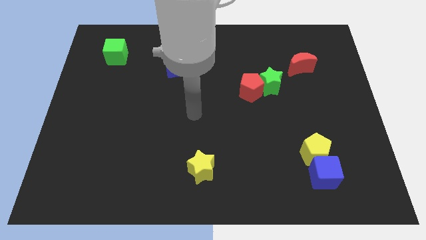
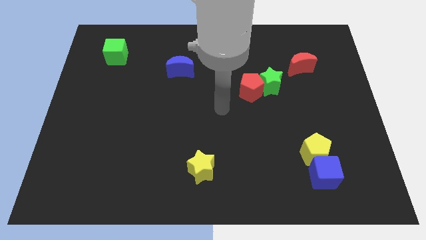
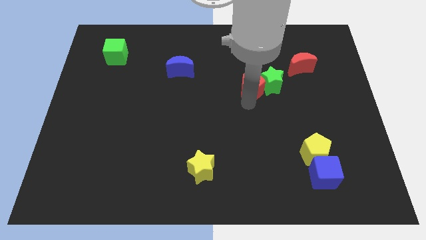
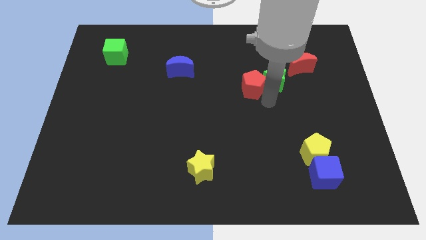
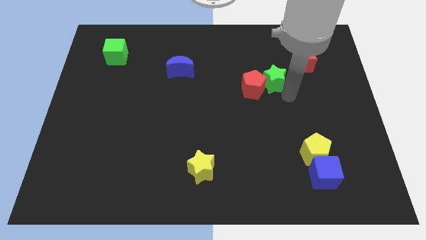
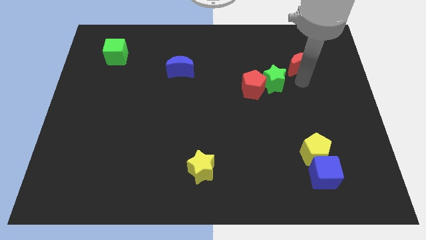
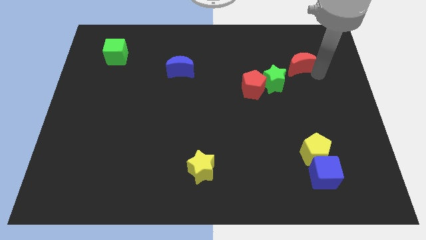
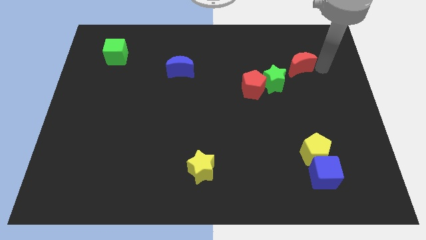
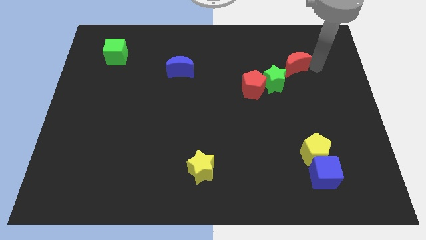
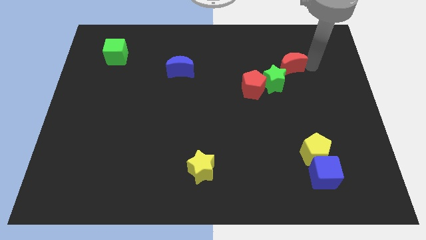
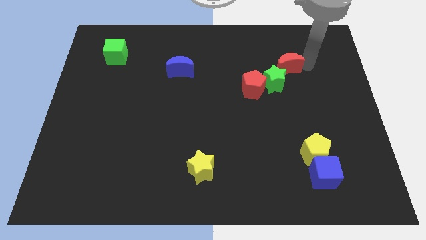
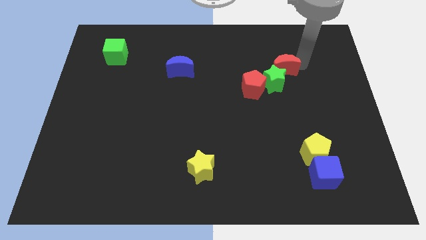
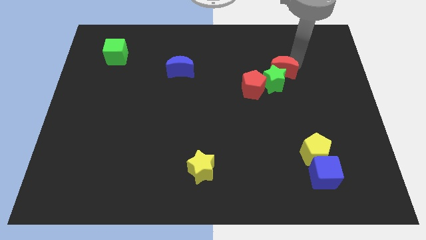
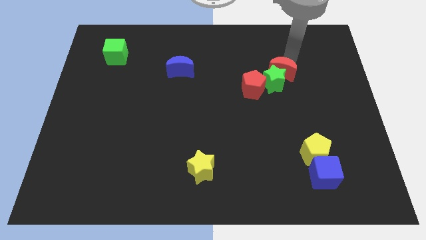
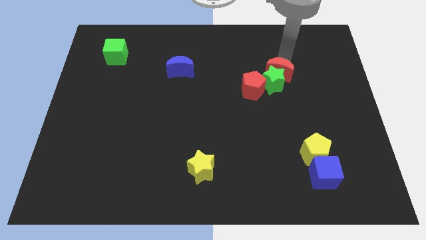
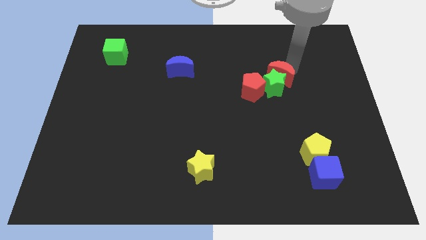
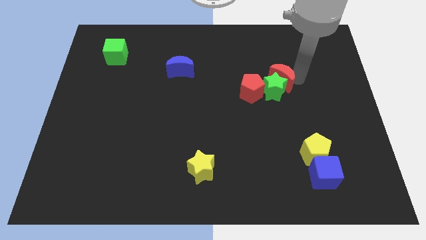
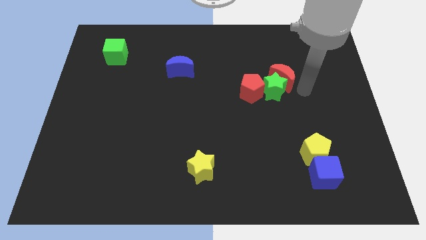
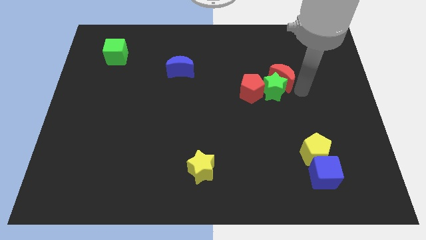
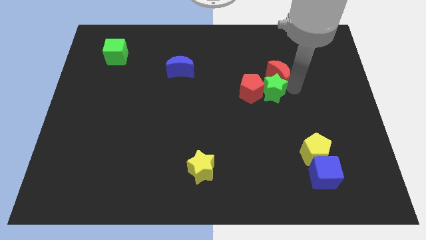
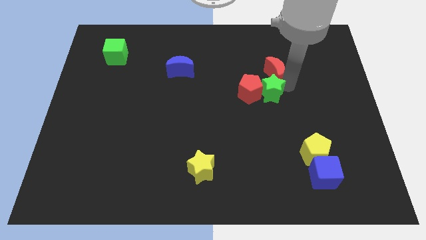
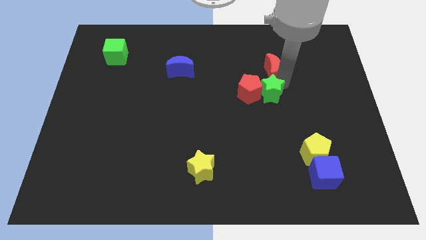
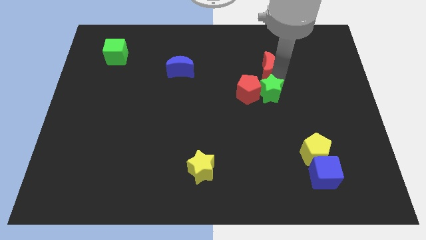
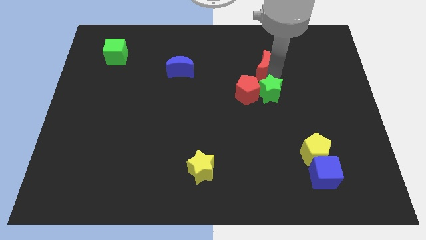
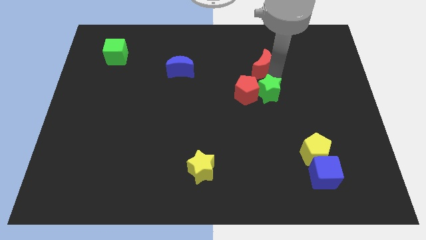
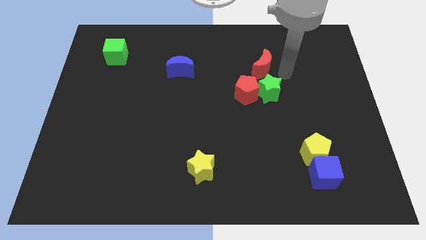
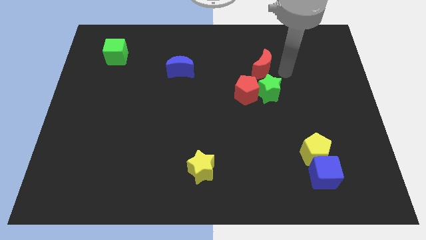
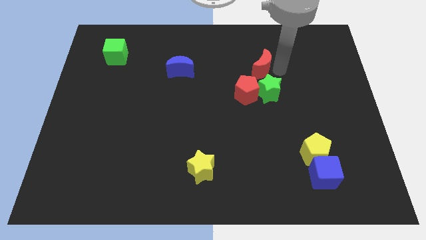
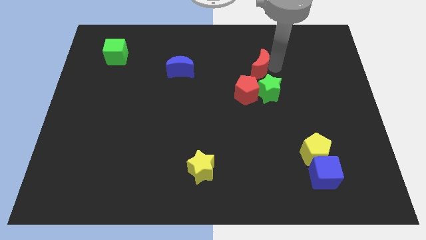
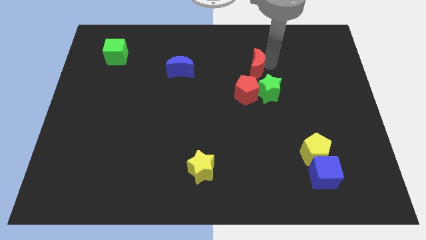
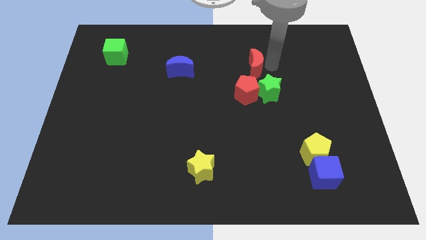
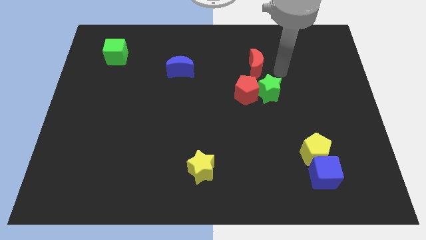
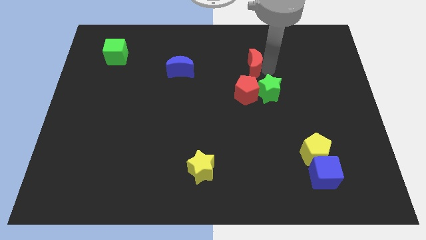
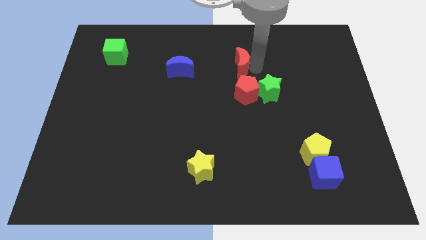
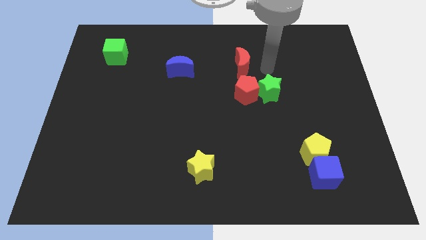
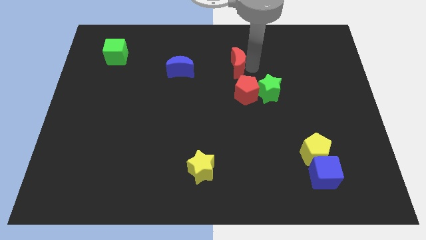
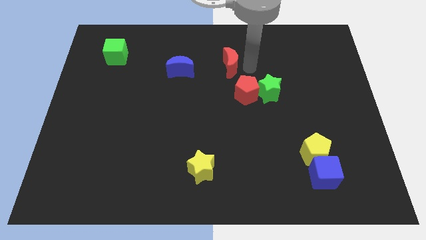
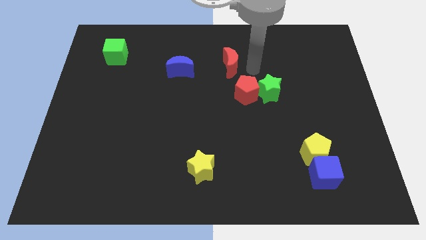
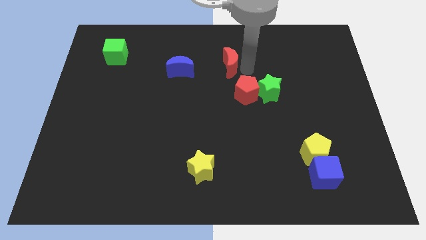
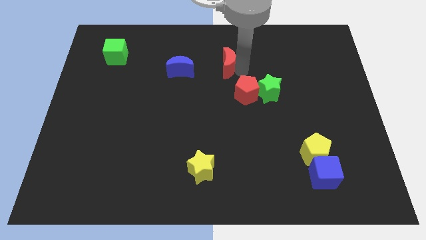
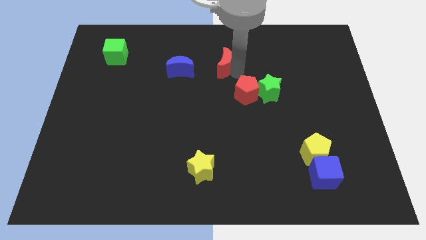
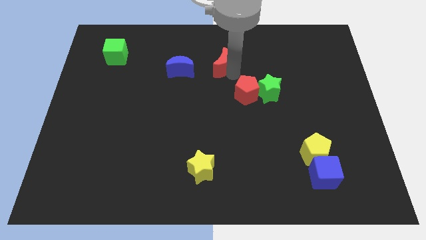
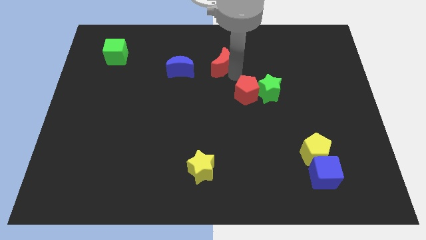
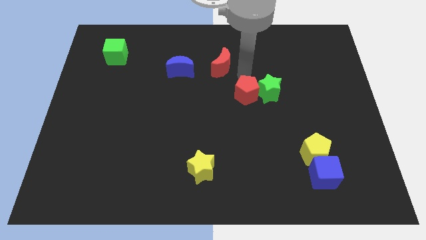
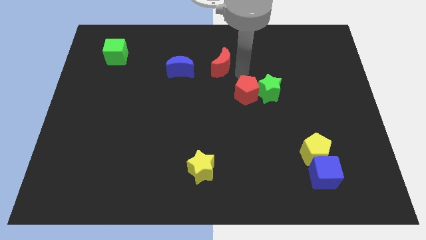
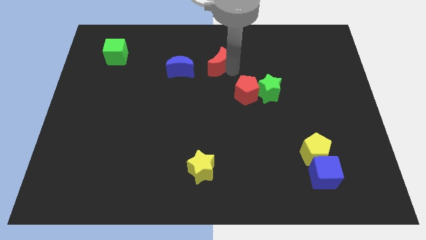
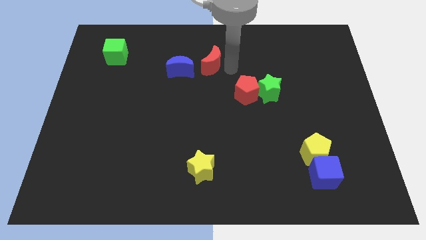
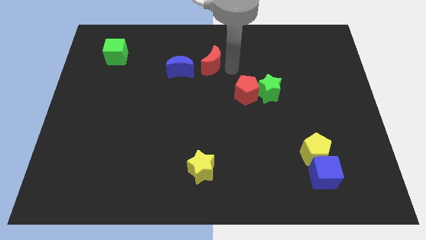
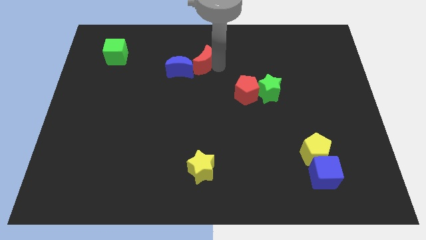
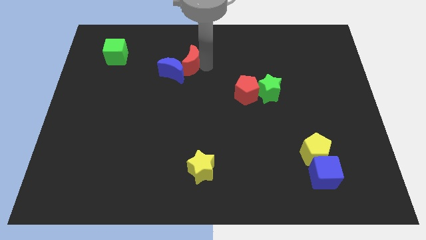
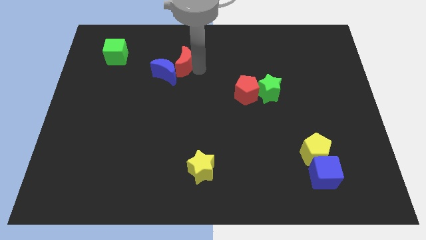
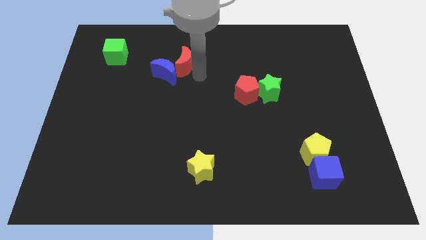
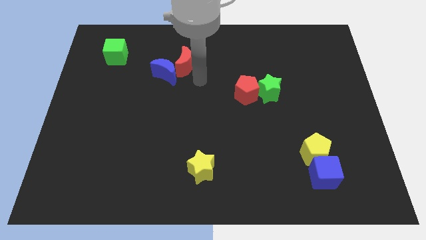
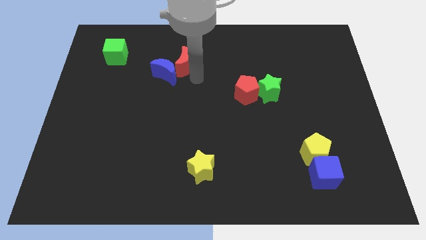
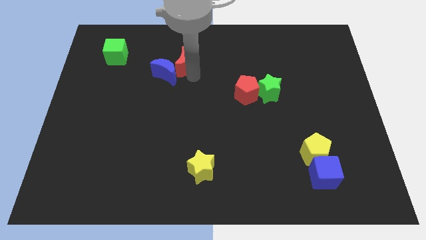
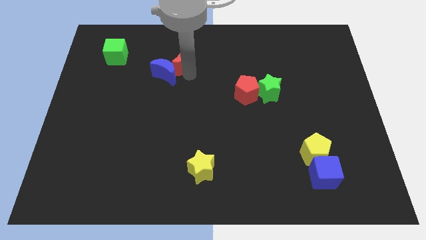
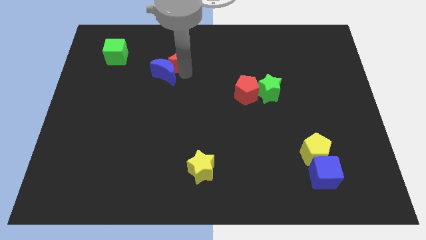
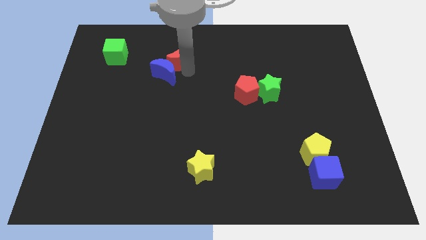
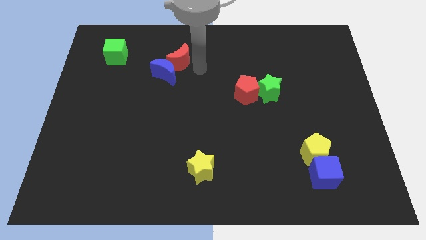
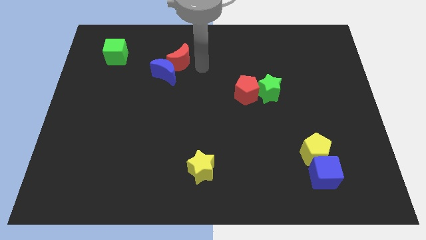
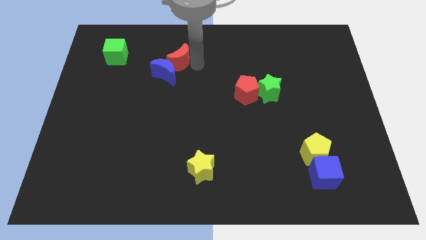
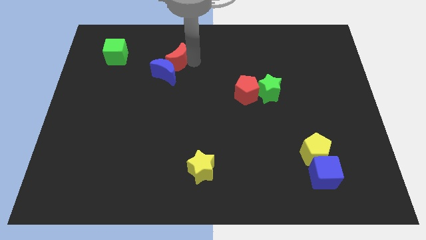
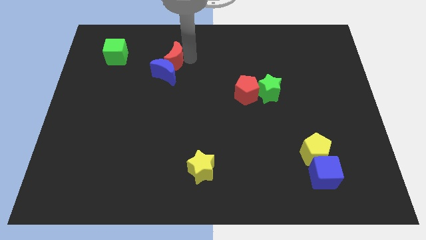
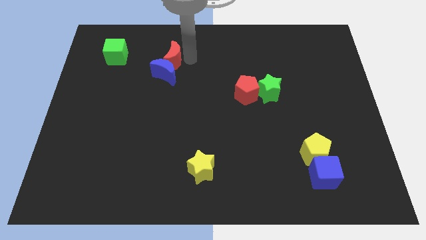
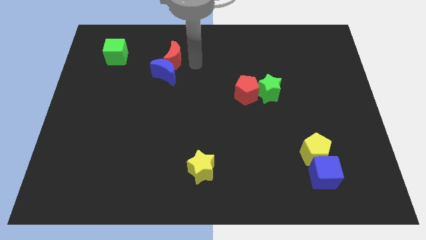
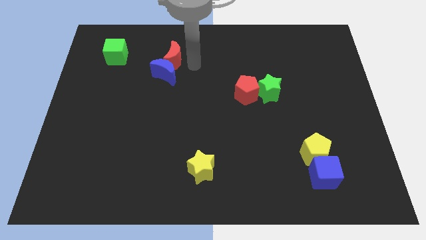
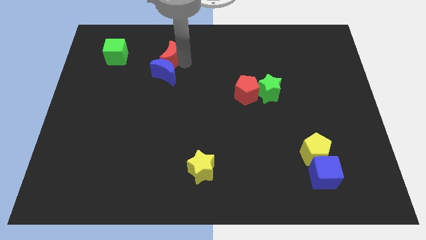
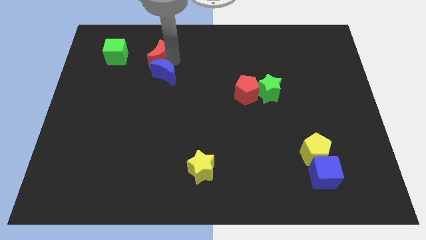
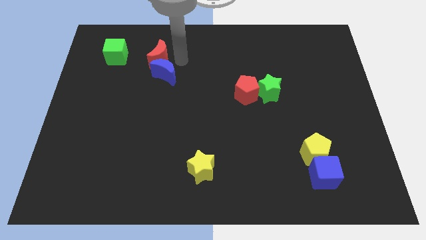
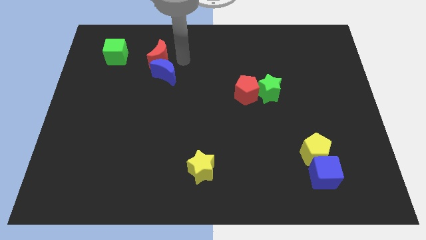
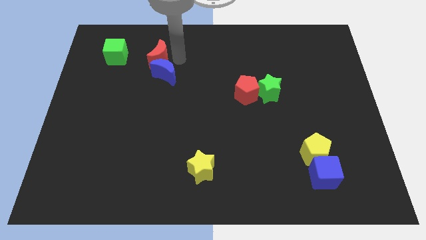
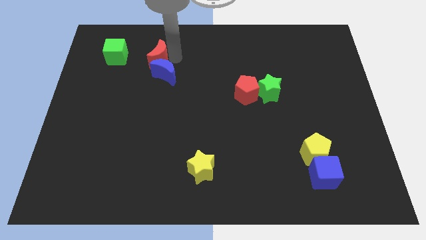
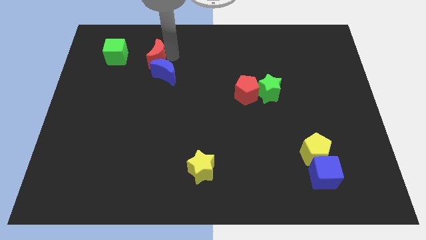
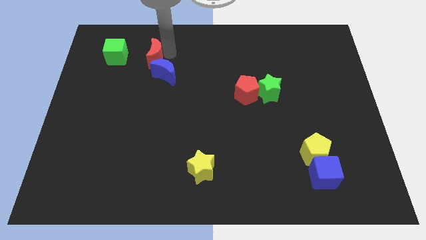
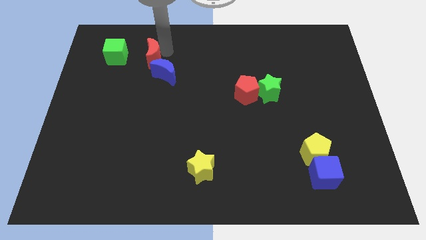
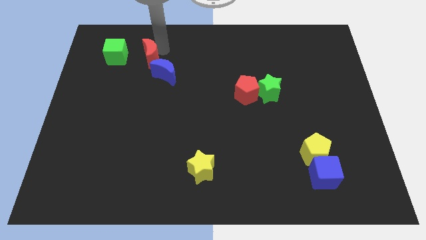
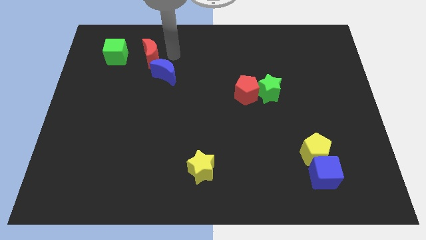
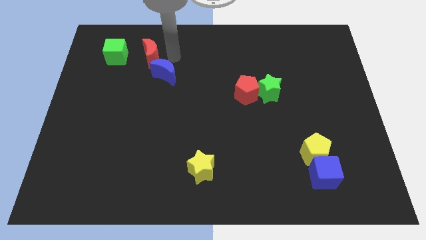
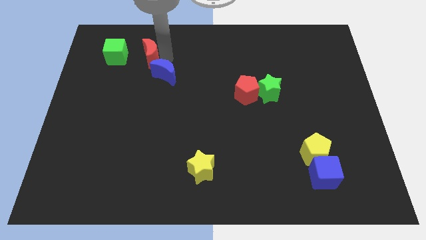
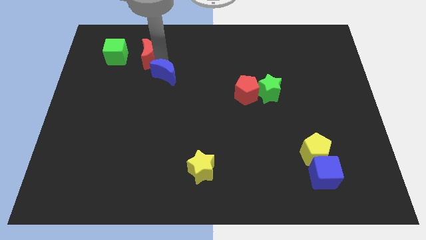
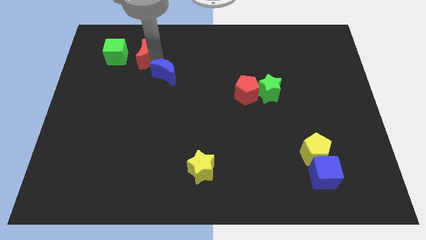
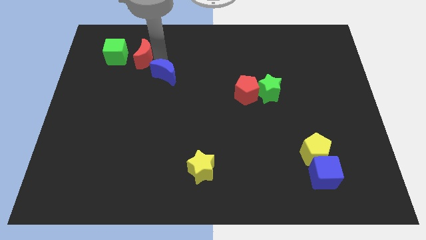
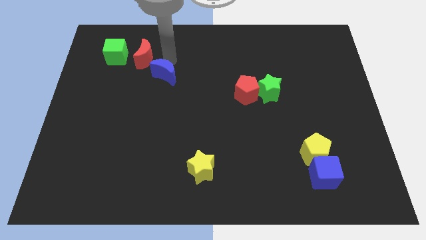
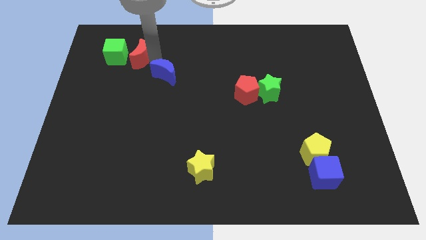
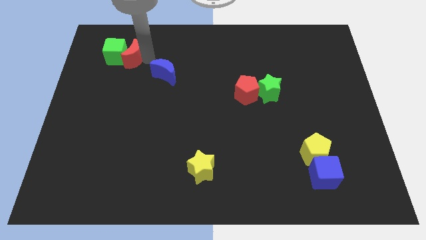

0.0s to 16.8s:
push the red moon towards the green cube
